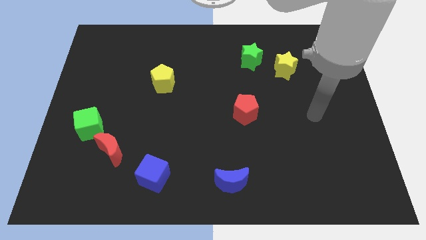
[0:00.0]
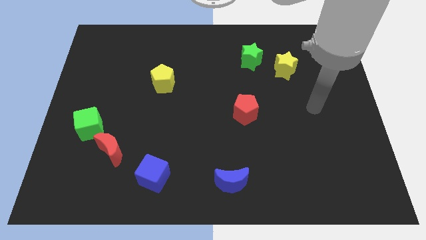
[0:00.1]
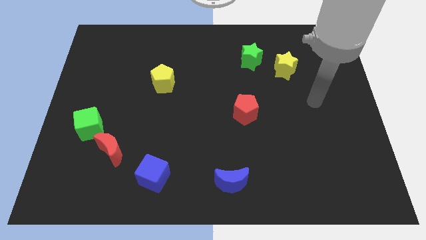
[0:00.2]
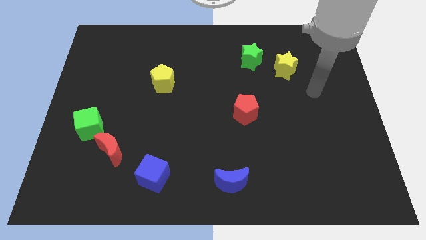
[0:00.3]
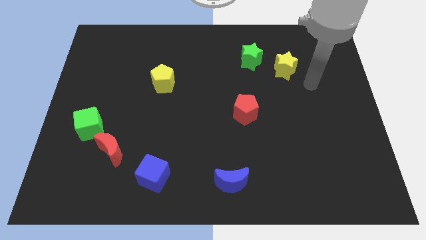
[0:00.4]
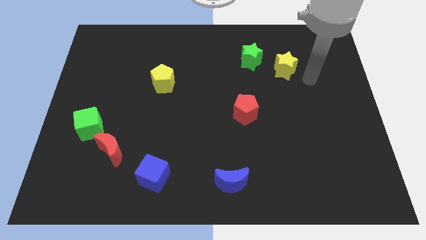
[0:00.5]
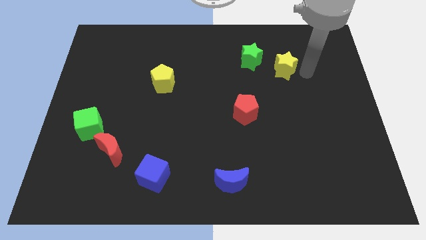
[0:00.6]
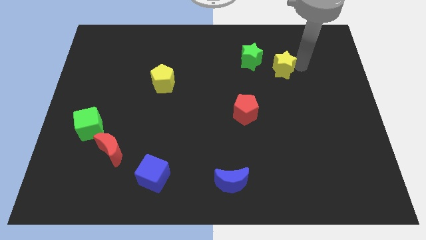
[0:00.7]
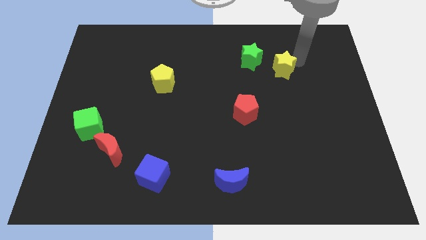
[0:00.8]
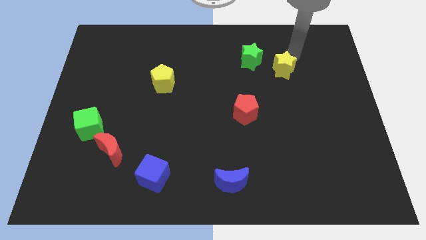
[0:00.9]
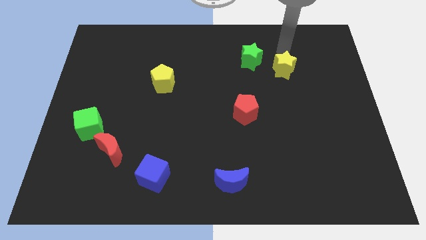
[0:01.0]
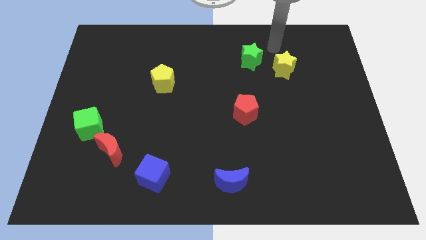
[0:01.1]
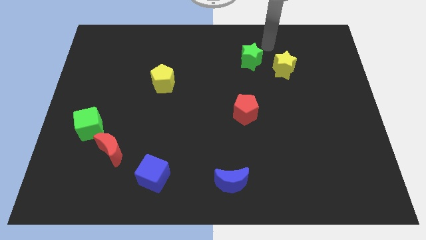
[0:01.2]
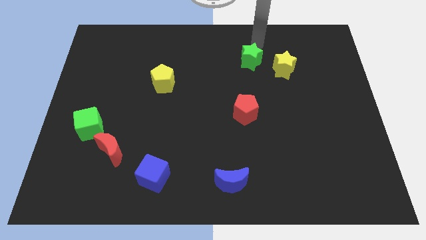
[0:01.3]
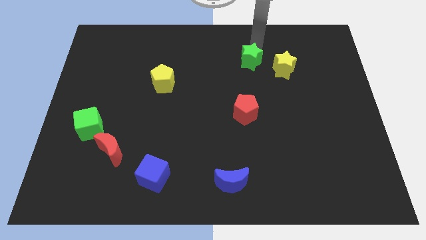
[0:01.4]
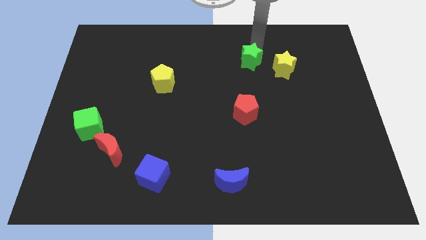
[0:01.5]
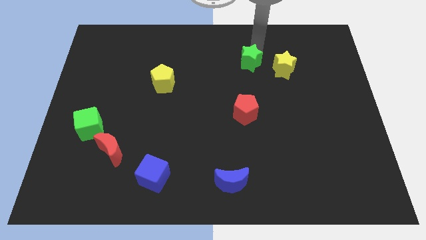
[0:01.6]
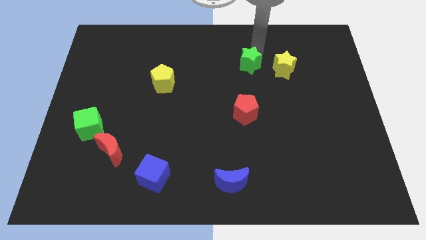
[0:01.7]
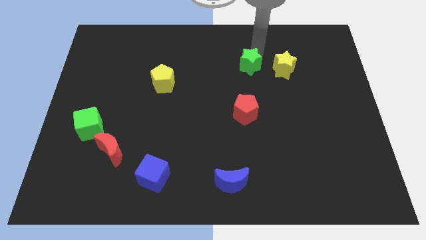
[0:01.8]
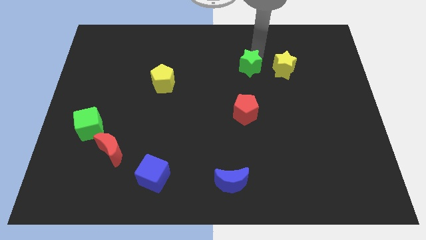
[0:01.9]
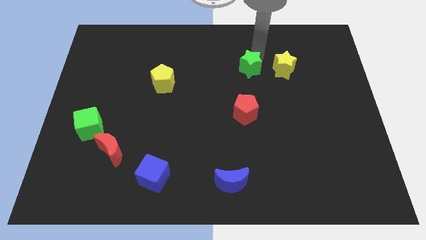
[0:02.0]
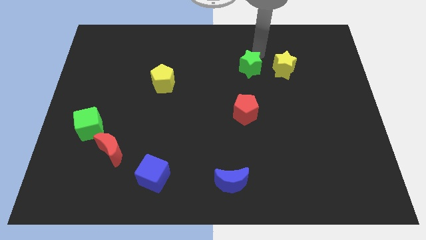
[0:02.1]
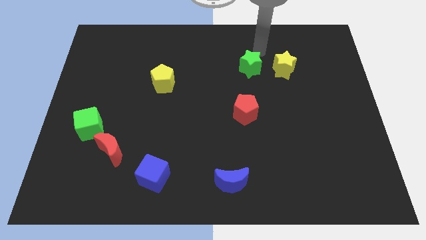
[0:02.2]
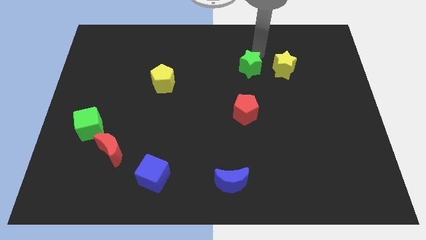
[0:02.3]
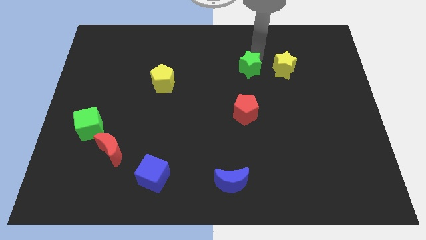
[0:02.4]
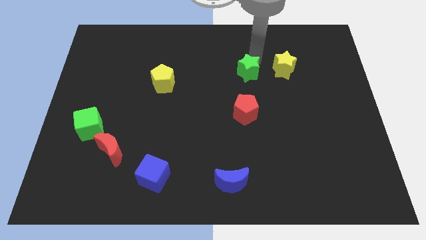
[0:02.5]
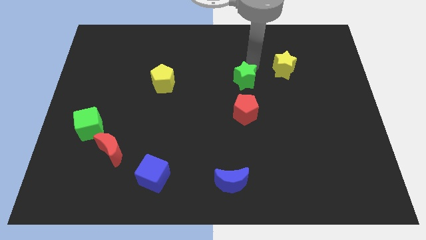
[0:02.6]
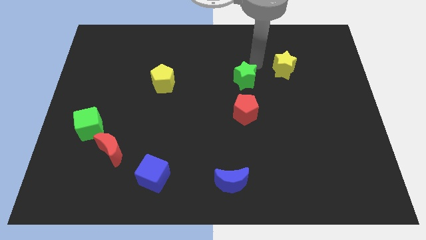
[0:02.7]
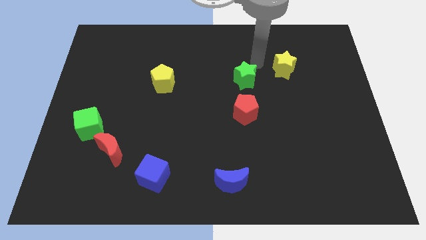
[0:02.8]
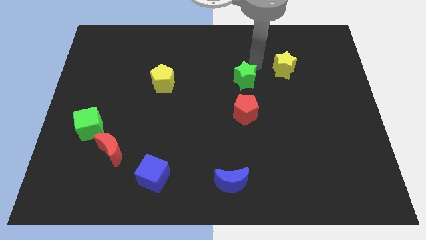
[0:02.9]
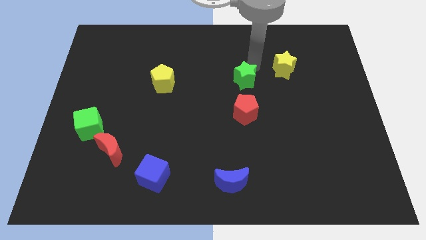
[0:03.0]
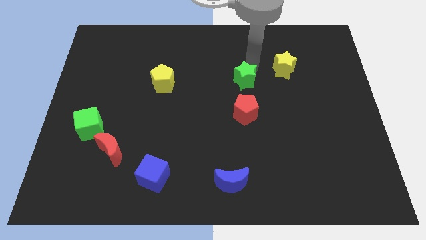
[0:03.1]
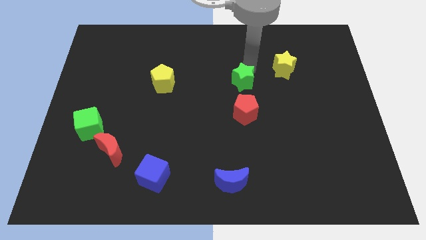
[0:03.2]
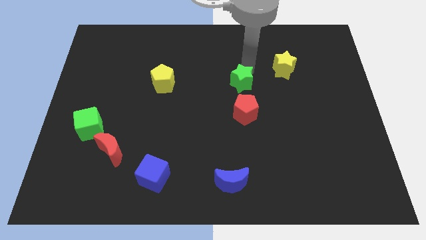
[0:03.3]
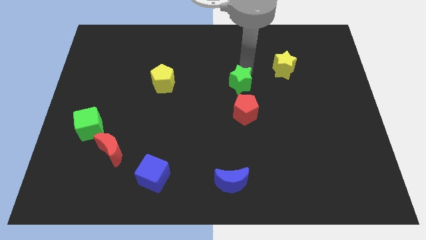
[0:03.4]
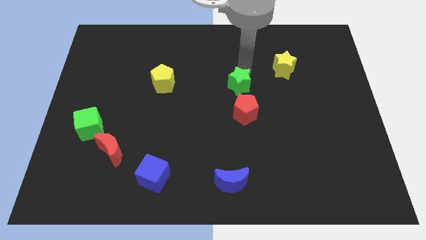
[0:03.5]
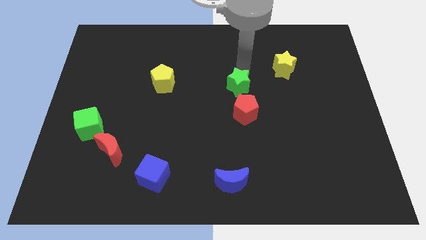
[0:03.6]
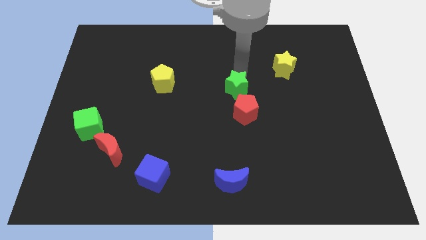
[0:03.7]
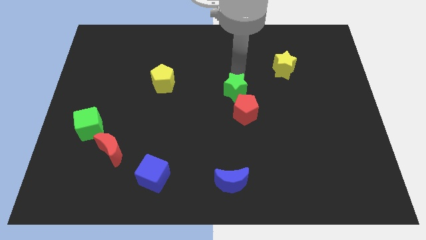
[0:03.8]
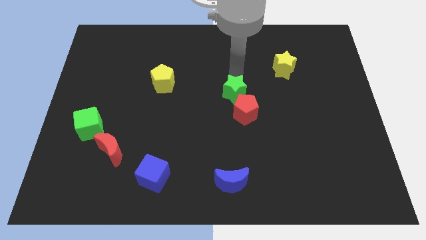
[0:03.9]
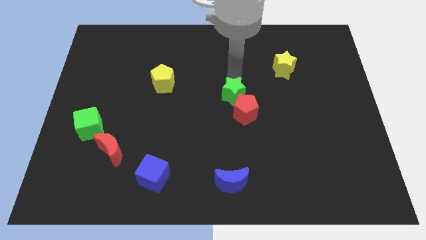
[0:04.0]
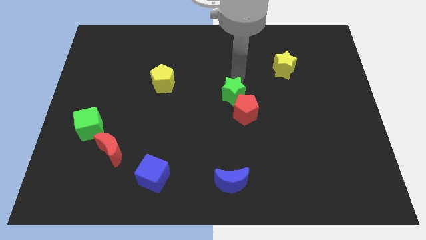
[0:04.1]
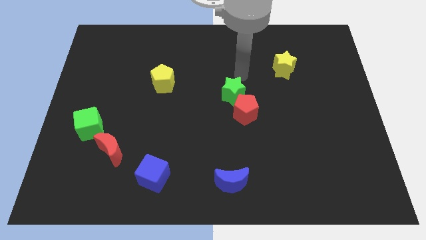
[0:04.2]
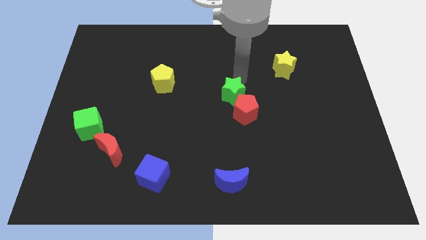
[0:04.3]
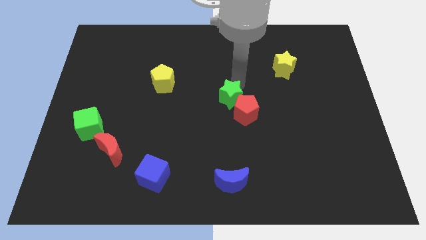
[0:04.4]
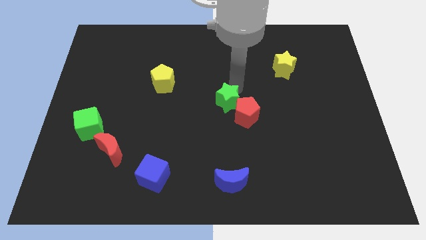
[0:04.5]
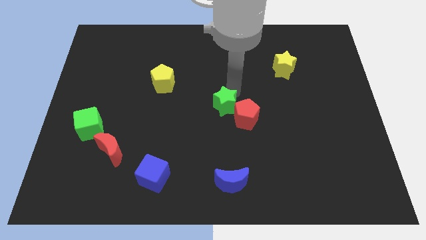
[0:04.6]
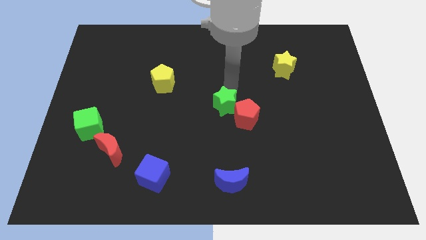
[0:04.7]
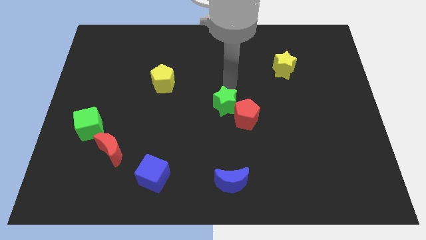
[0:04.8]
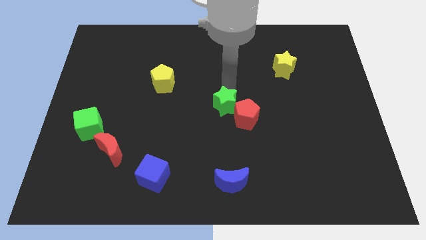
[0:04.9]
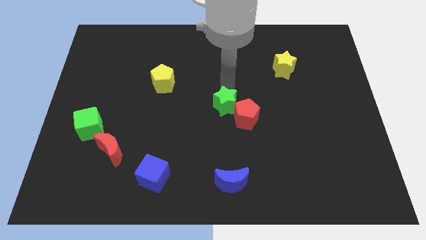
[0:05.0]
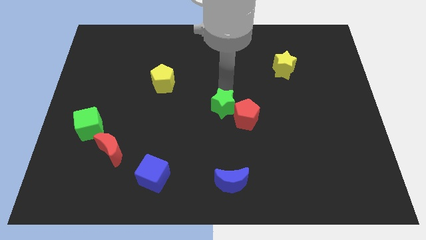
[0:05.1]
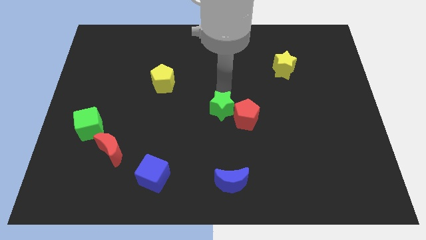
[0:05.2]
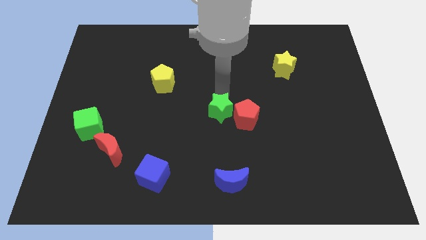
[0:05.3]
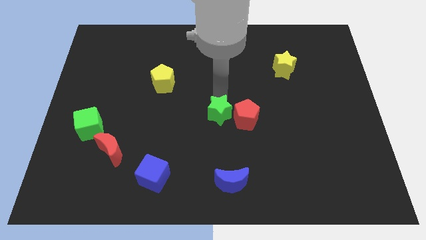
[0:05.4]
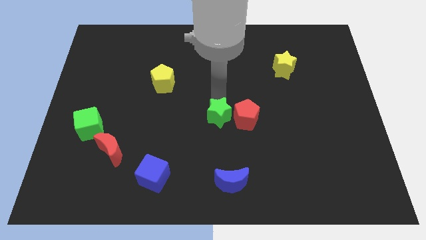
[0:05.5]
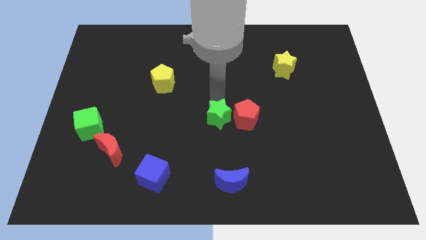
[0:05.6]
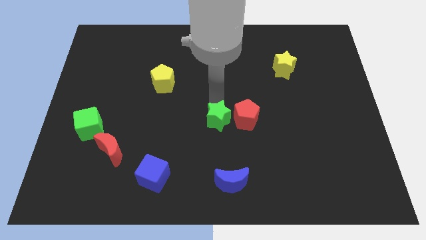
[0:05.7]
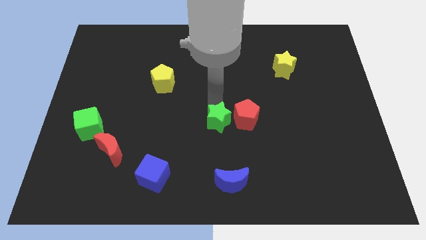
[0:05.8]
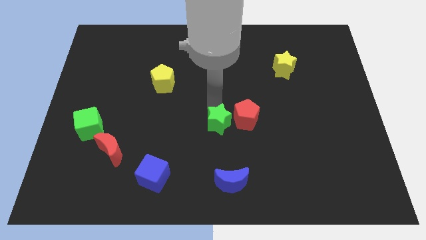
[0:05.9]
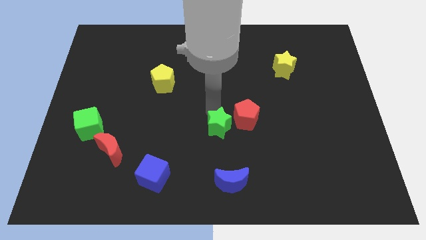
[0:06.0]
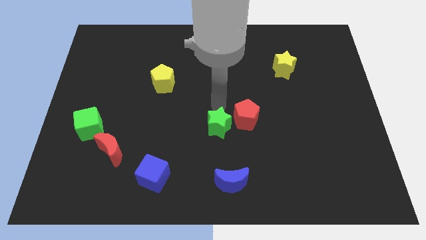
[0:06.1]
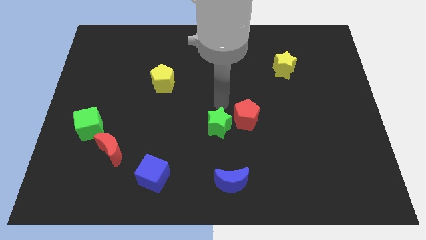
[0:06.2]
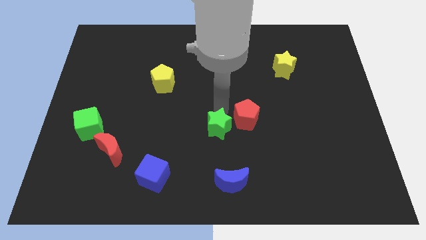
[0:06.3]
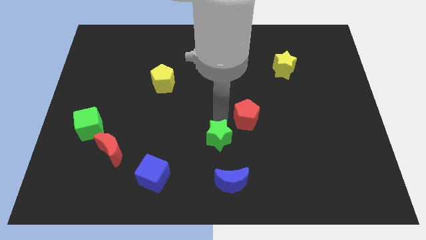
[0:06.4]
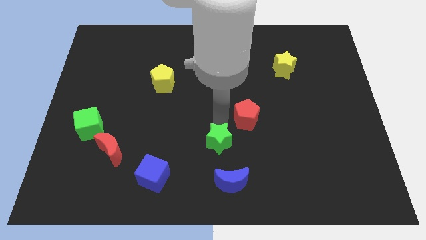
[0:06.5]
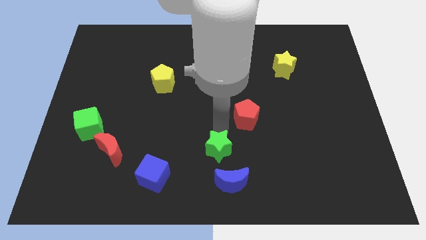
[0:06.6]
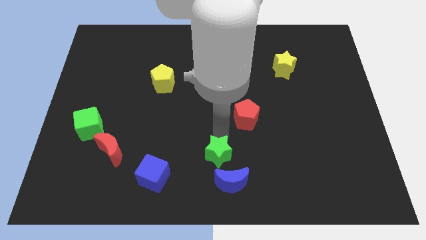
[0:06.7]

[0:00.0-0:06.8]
slide the green star to the bottom

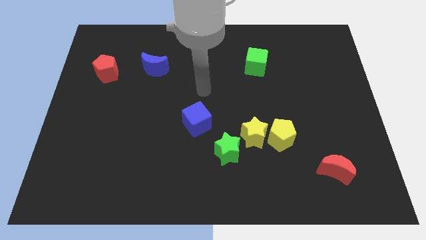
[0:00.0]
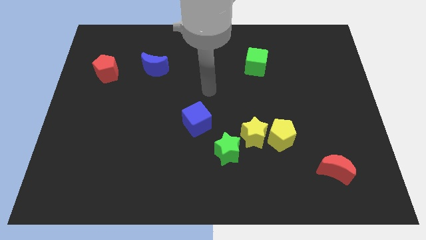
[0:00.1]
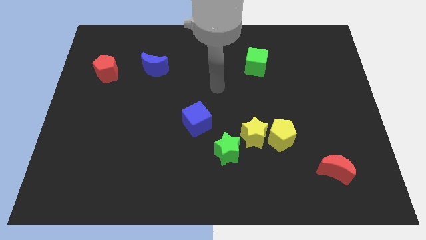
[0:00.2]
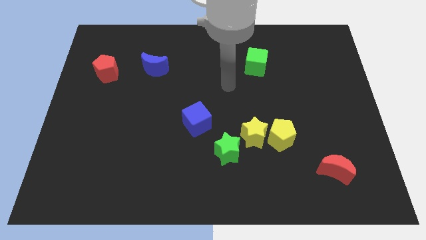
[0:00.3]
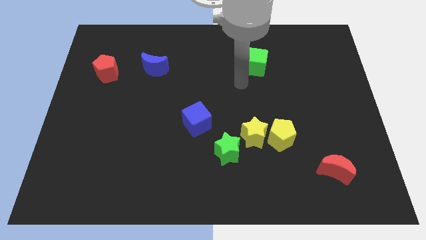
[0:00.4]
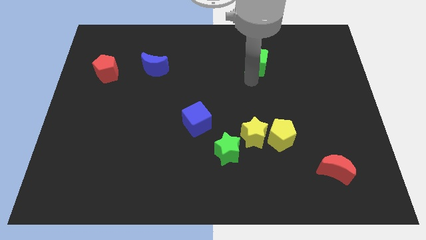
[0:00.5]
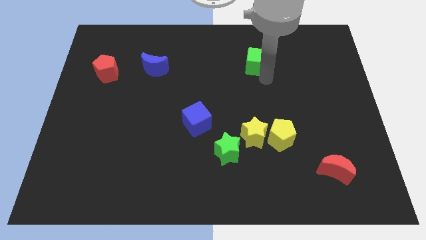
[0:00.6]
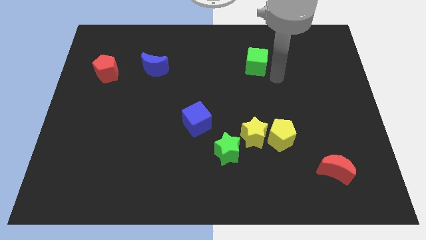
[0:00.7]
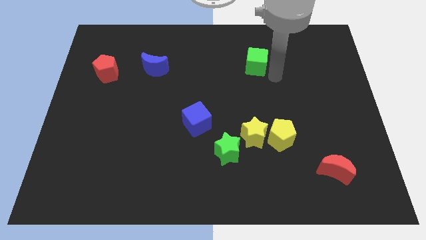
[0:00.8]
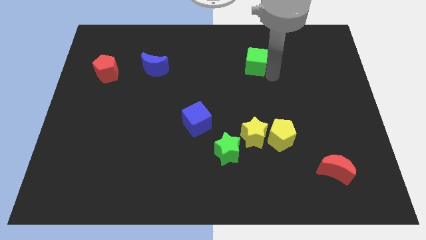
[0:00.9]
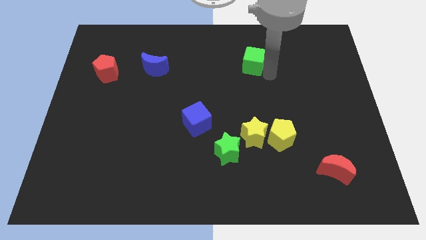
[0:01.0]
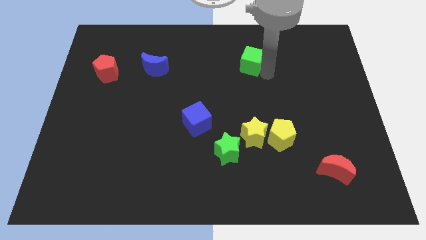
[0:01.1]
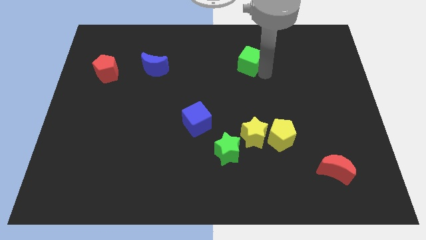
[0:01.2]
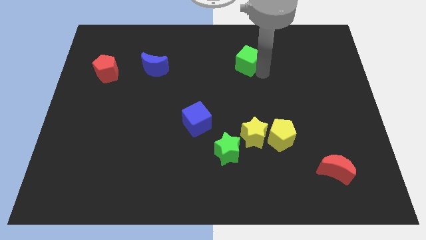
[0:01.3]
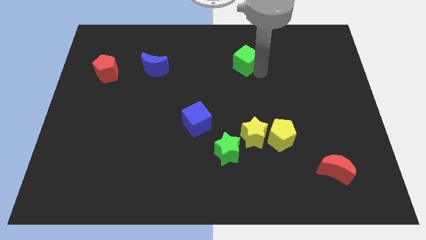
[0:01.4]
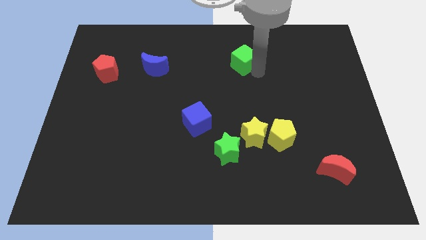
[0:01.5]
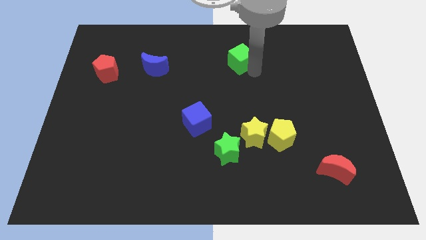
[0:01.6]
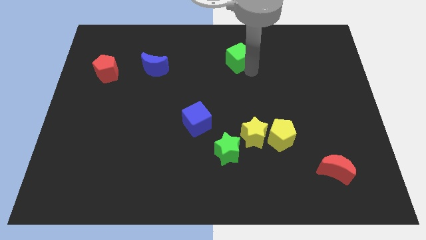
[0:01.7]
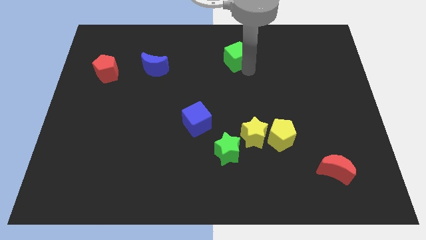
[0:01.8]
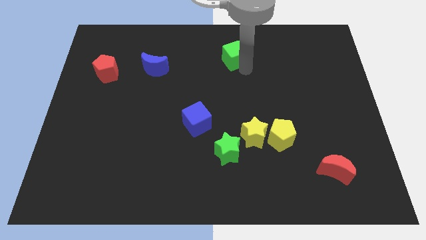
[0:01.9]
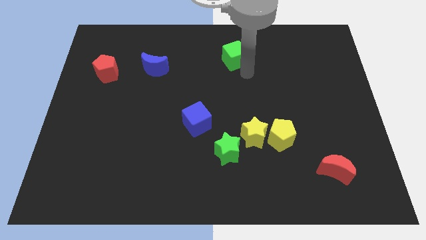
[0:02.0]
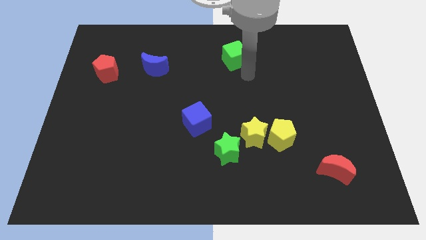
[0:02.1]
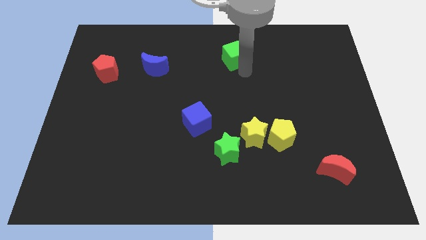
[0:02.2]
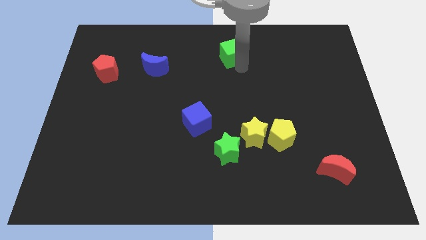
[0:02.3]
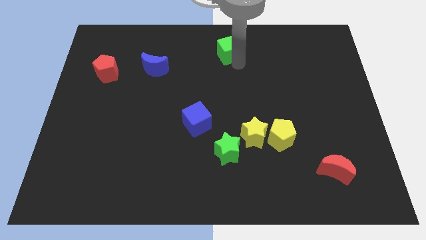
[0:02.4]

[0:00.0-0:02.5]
push the green cube to the top side
